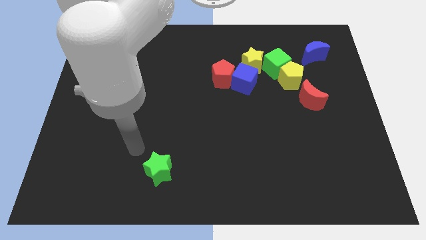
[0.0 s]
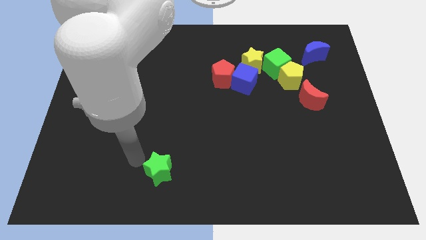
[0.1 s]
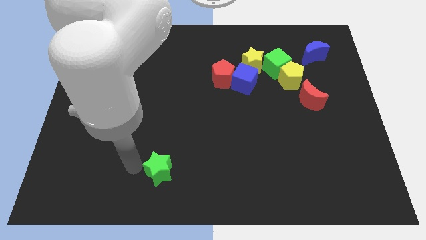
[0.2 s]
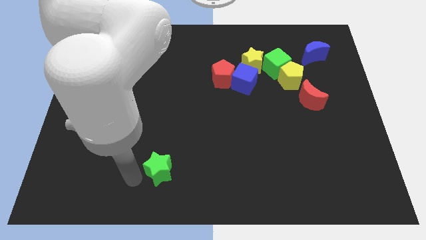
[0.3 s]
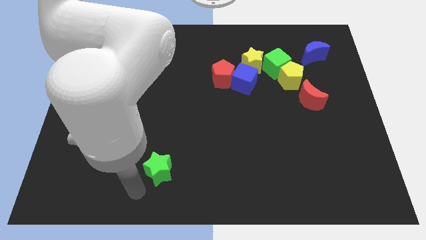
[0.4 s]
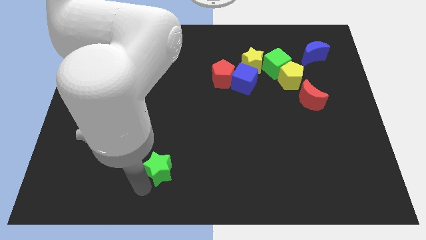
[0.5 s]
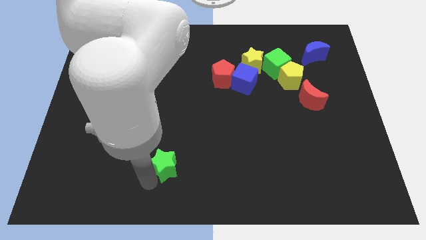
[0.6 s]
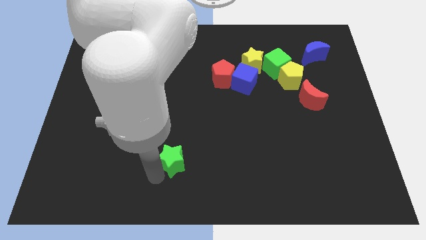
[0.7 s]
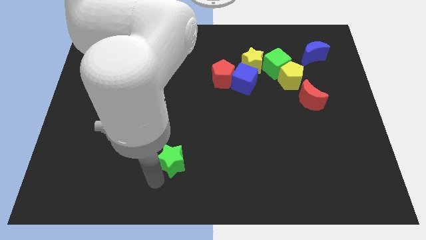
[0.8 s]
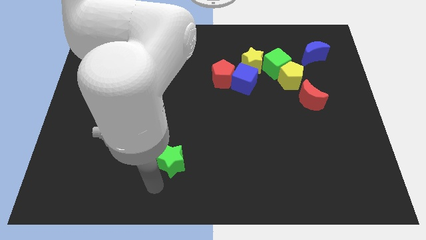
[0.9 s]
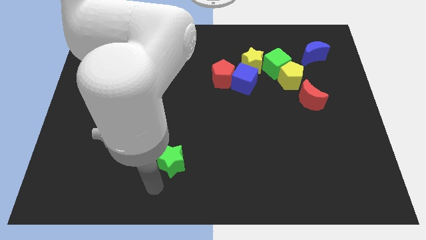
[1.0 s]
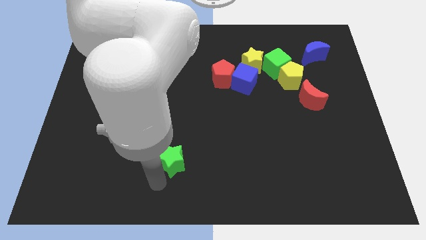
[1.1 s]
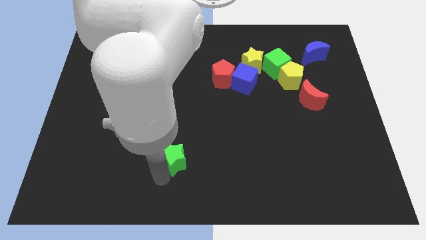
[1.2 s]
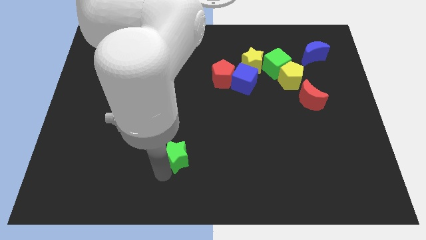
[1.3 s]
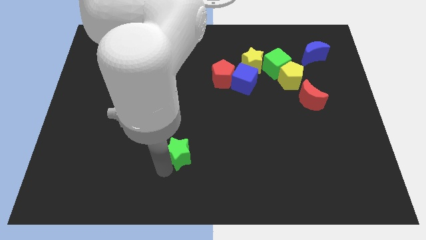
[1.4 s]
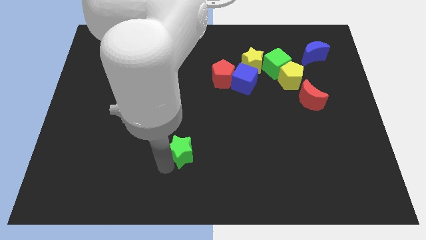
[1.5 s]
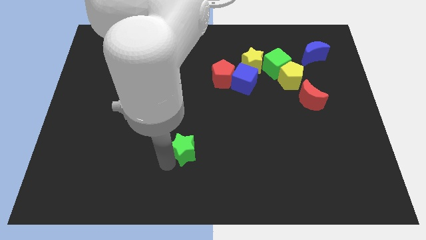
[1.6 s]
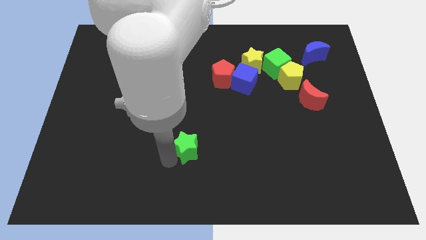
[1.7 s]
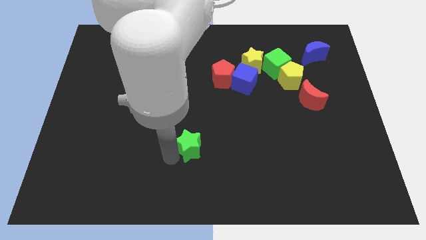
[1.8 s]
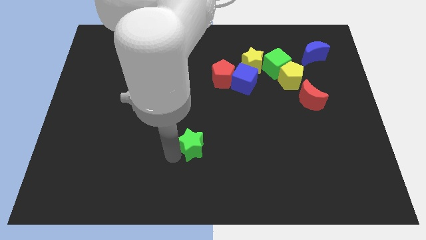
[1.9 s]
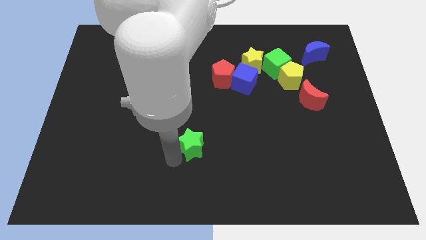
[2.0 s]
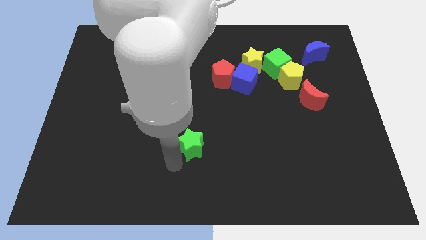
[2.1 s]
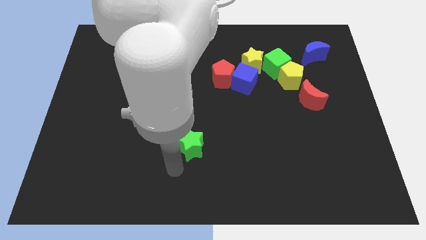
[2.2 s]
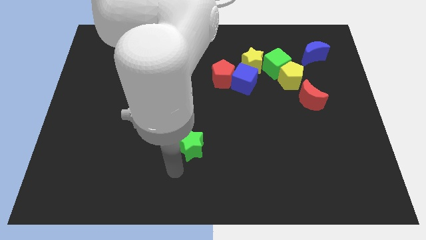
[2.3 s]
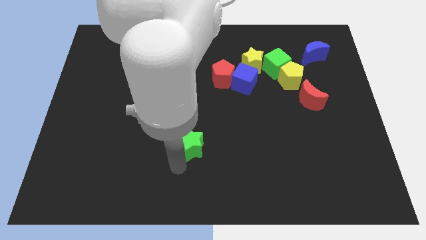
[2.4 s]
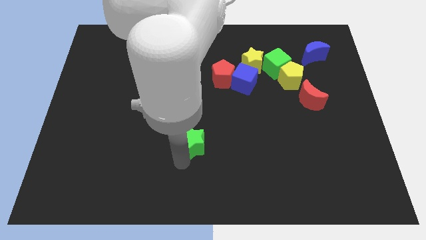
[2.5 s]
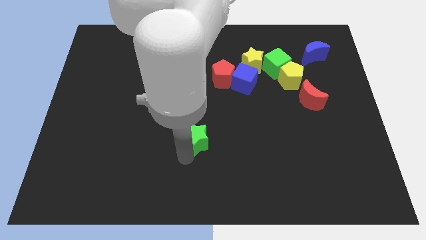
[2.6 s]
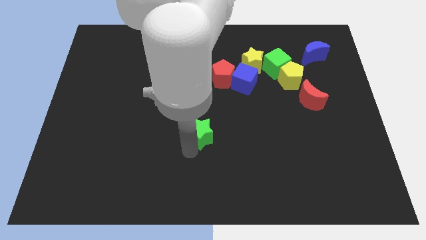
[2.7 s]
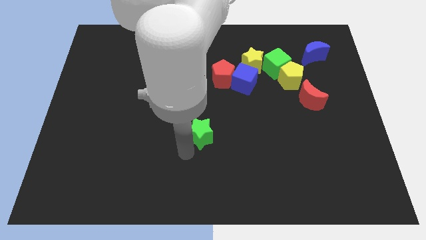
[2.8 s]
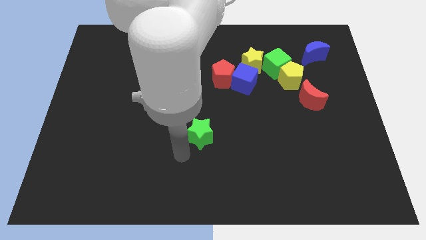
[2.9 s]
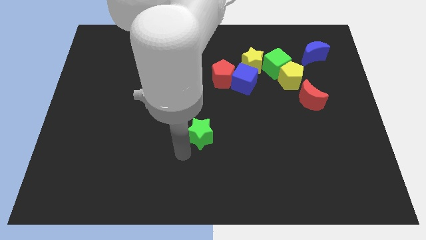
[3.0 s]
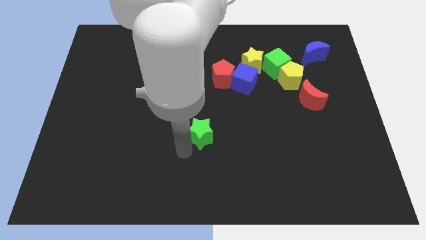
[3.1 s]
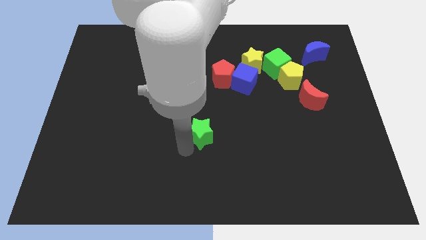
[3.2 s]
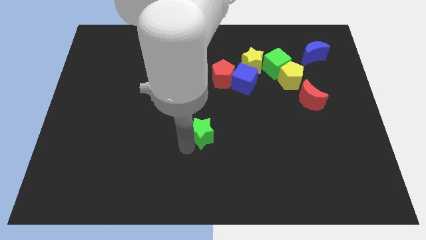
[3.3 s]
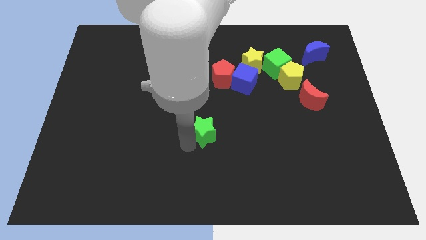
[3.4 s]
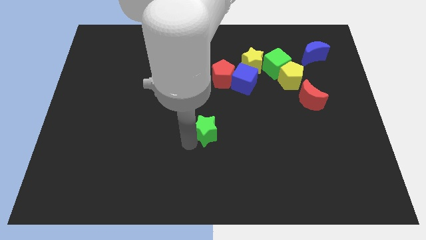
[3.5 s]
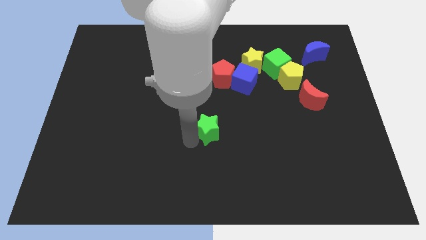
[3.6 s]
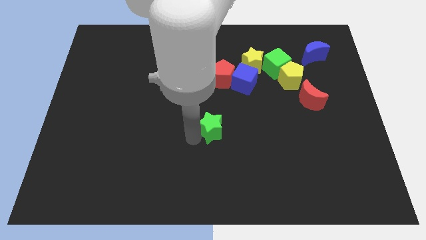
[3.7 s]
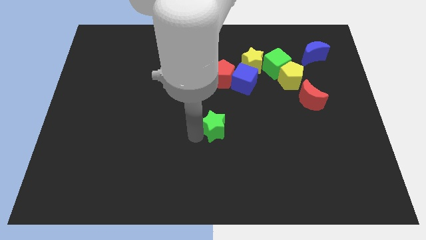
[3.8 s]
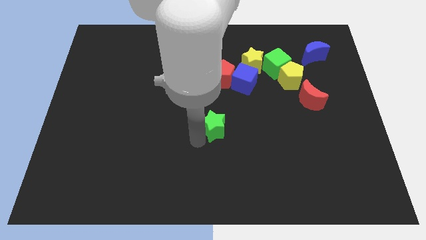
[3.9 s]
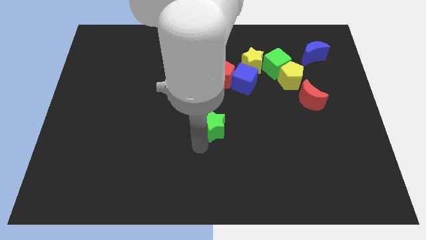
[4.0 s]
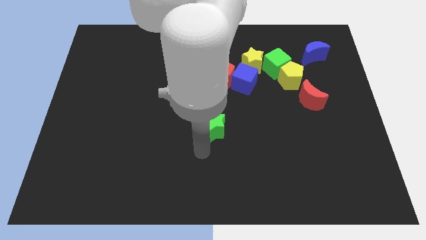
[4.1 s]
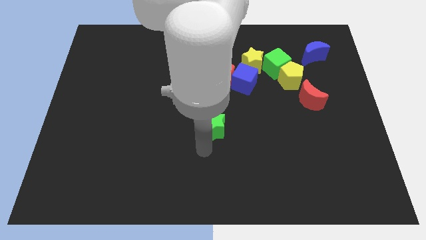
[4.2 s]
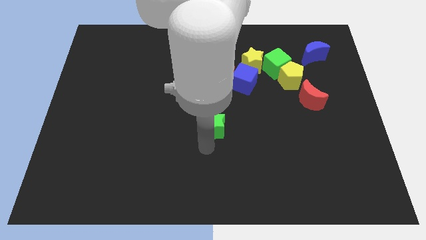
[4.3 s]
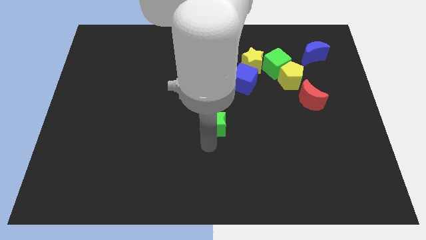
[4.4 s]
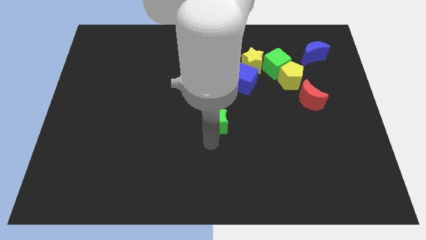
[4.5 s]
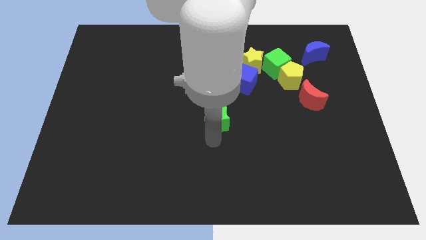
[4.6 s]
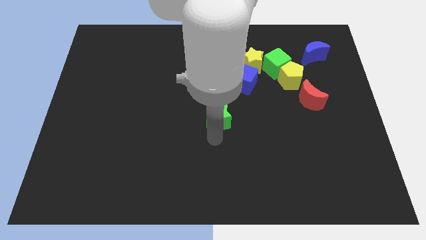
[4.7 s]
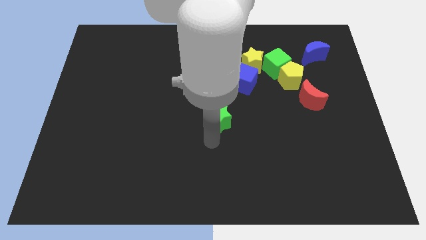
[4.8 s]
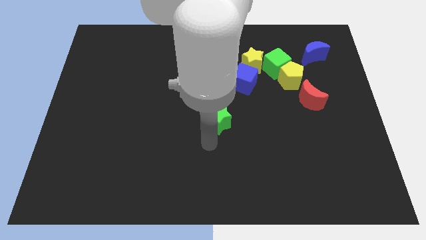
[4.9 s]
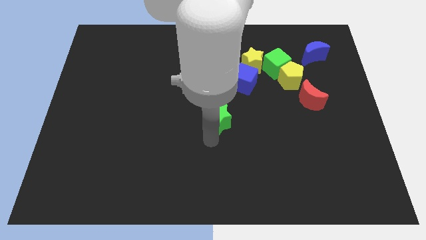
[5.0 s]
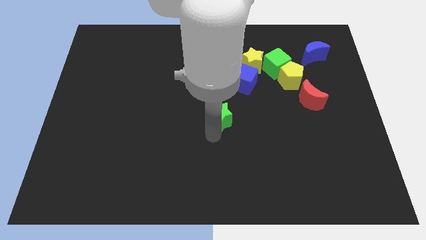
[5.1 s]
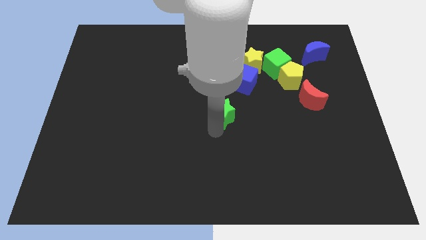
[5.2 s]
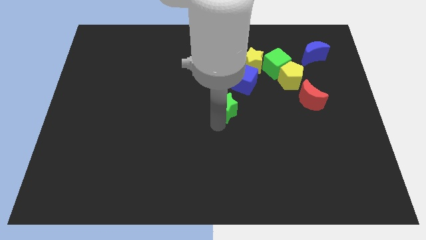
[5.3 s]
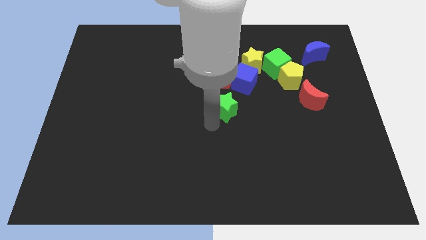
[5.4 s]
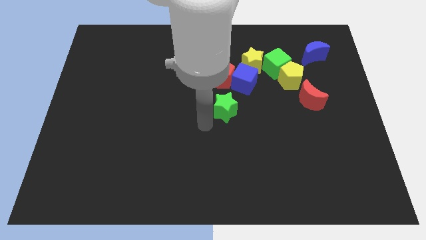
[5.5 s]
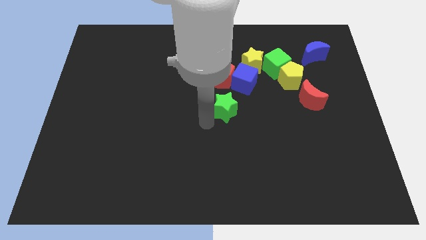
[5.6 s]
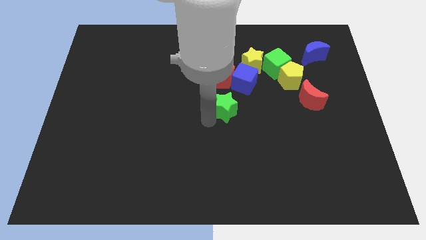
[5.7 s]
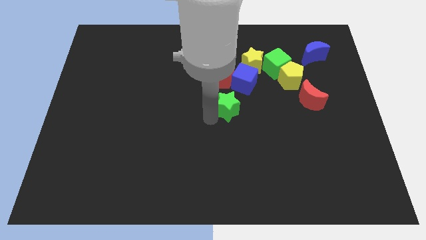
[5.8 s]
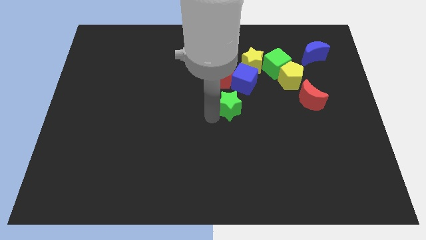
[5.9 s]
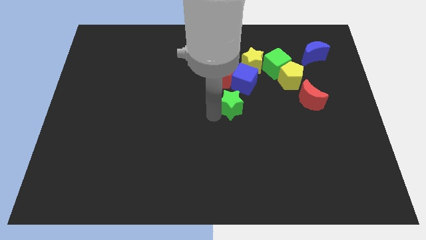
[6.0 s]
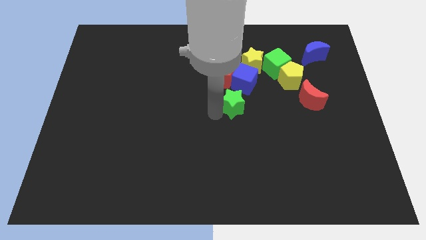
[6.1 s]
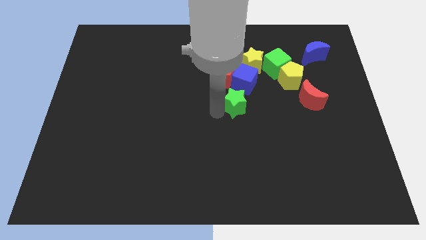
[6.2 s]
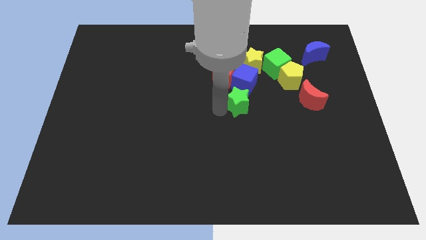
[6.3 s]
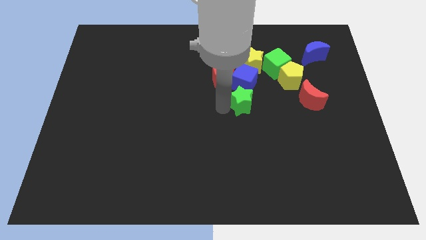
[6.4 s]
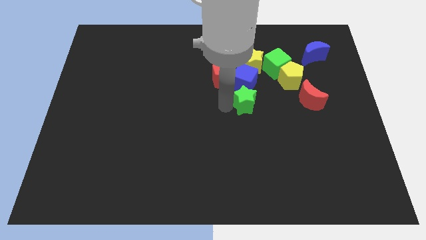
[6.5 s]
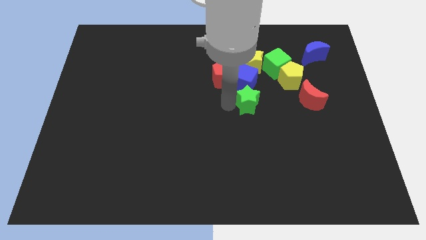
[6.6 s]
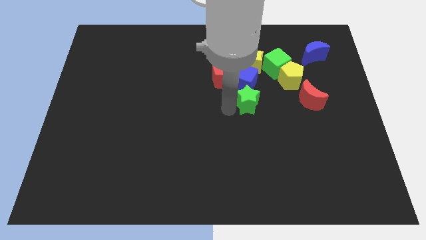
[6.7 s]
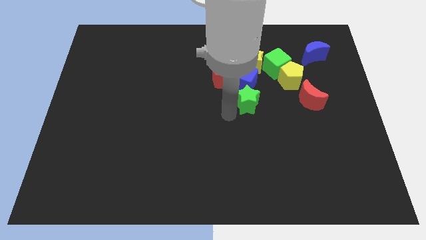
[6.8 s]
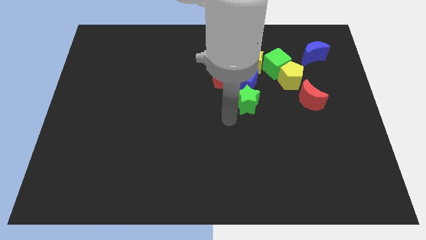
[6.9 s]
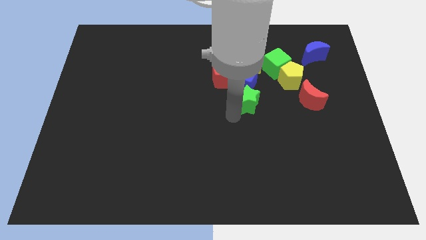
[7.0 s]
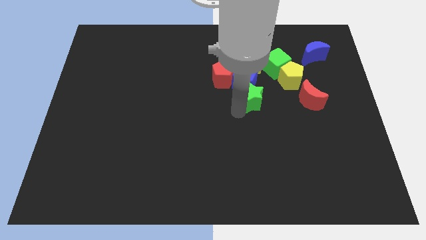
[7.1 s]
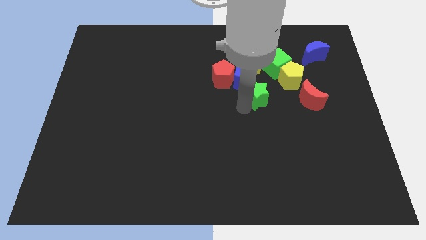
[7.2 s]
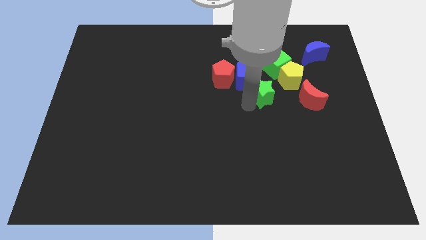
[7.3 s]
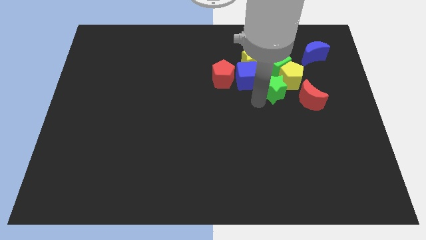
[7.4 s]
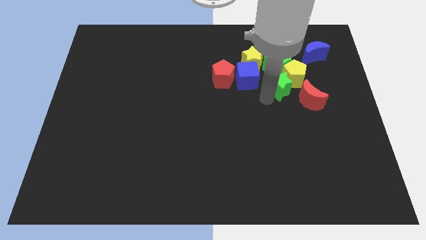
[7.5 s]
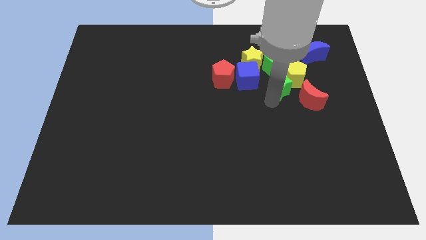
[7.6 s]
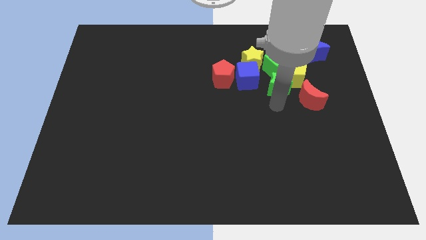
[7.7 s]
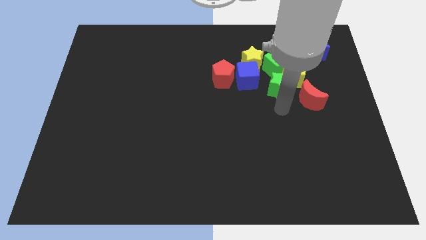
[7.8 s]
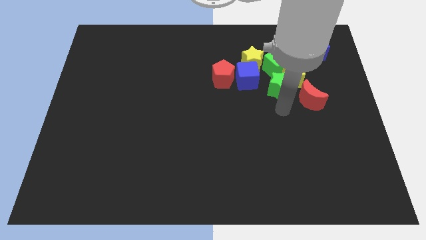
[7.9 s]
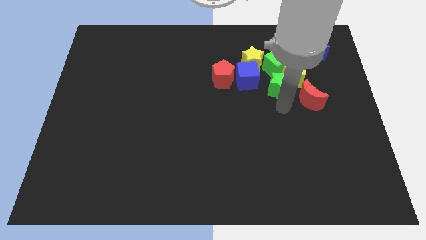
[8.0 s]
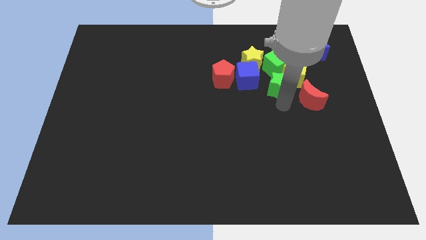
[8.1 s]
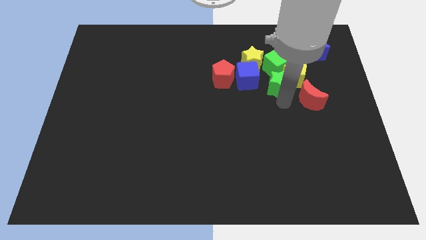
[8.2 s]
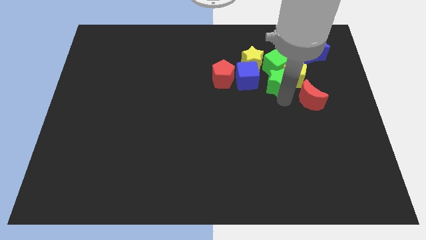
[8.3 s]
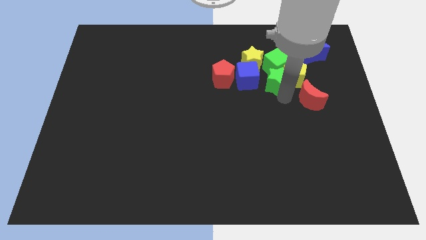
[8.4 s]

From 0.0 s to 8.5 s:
put the green star towards the green cube
